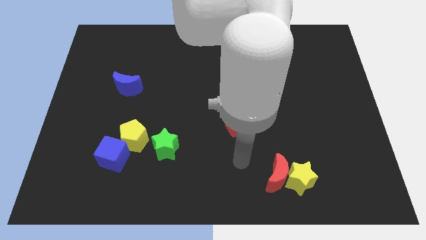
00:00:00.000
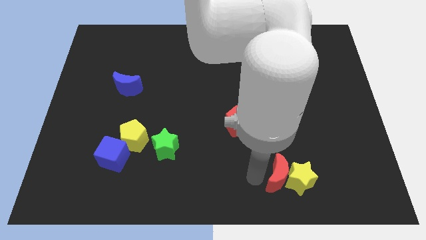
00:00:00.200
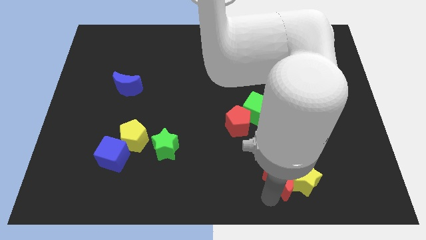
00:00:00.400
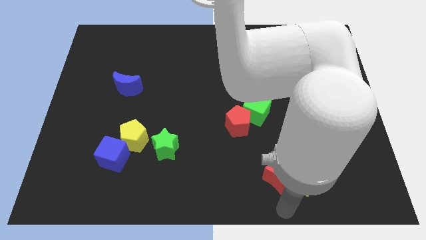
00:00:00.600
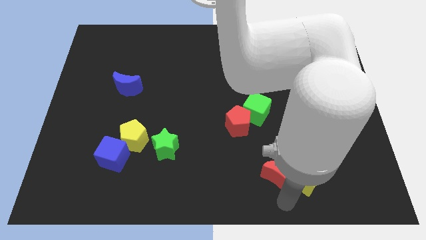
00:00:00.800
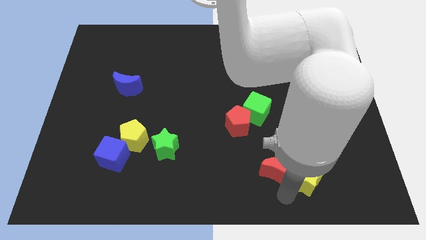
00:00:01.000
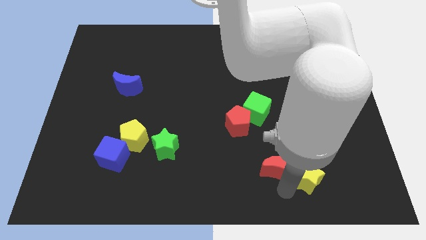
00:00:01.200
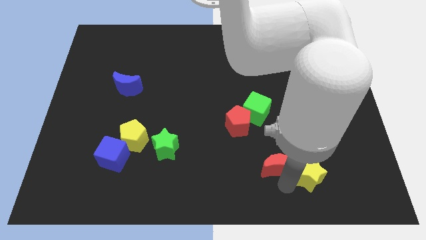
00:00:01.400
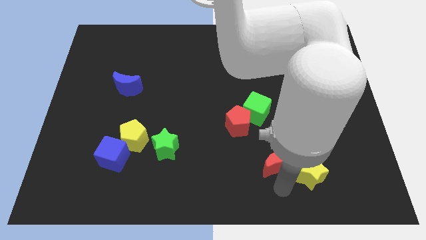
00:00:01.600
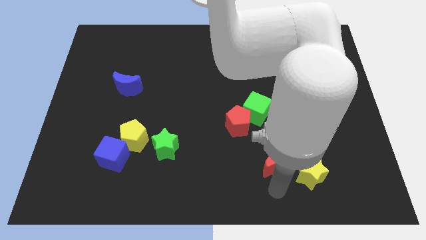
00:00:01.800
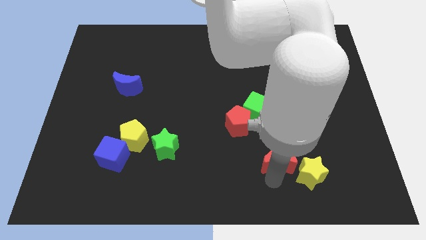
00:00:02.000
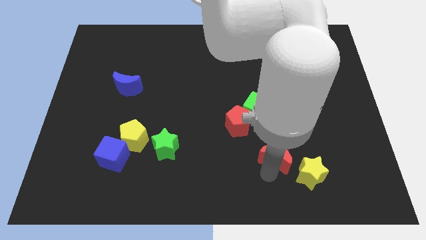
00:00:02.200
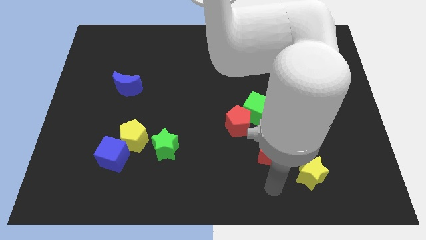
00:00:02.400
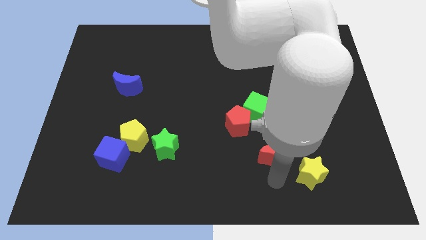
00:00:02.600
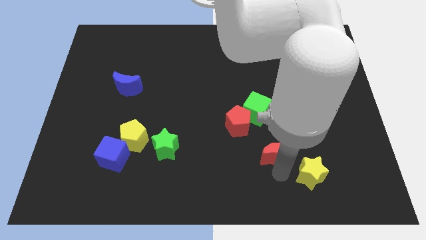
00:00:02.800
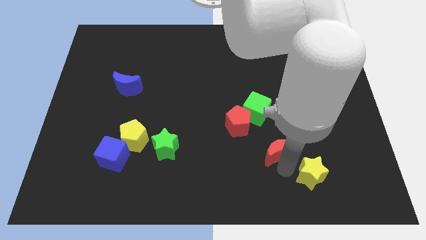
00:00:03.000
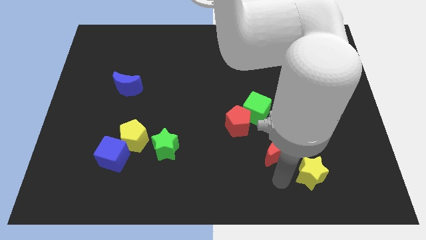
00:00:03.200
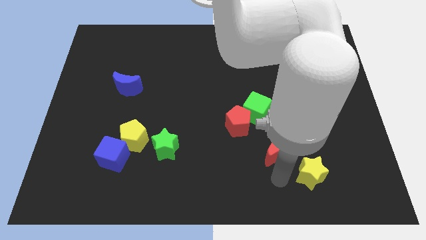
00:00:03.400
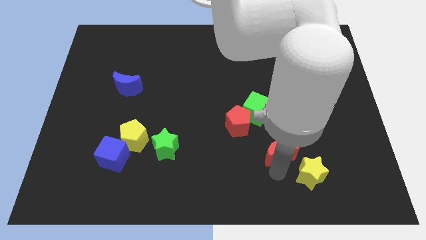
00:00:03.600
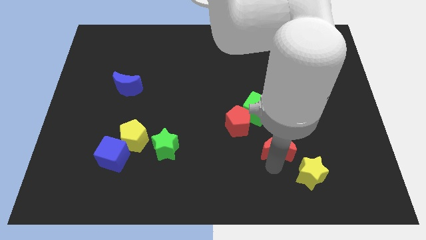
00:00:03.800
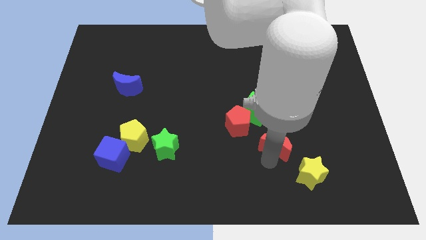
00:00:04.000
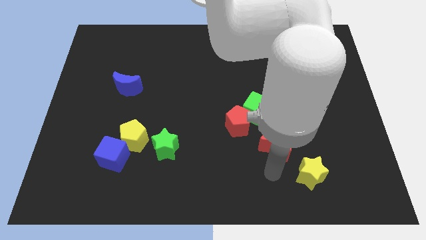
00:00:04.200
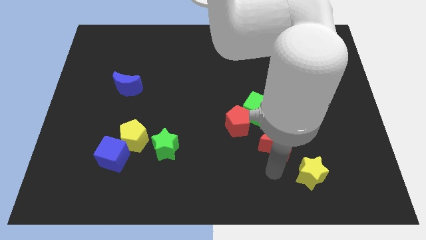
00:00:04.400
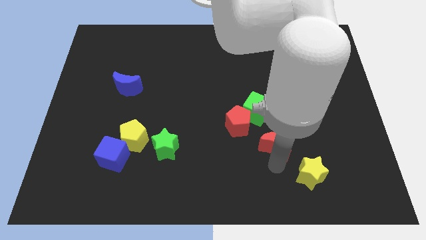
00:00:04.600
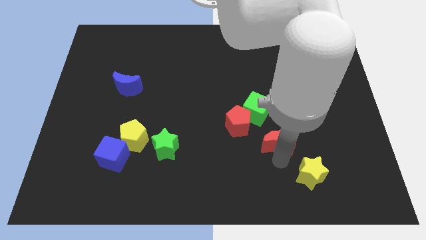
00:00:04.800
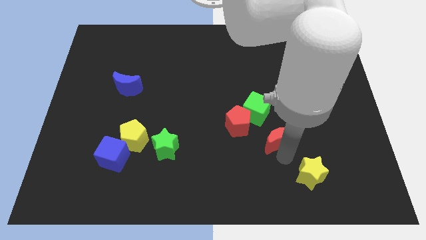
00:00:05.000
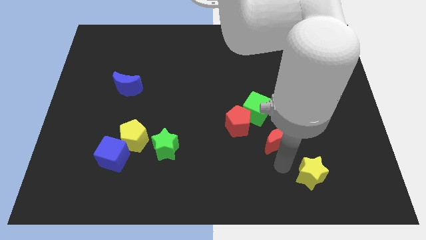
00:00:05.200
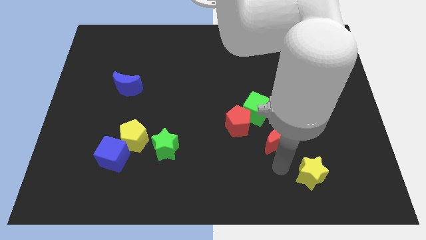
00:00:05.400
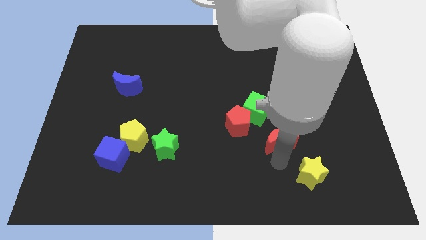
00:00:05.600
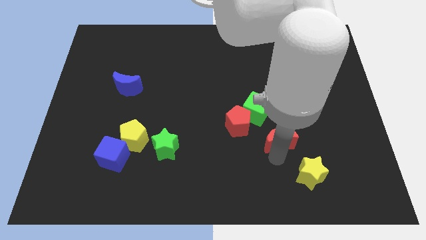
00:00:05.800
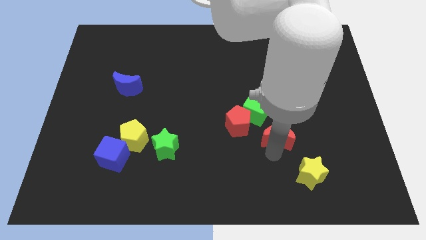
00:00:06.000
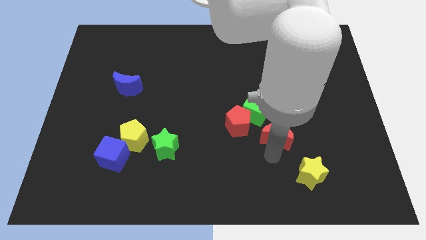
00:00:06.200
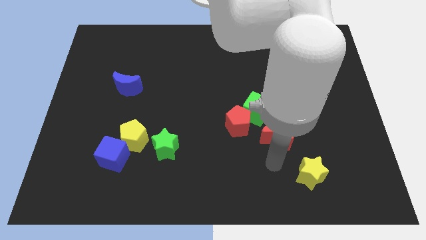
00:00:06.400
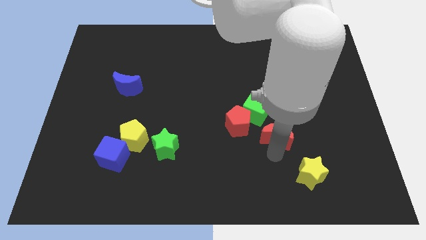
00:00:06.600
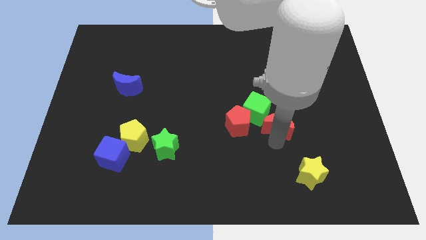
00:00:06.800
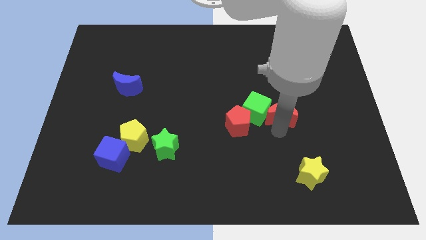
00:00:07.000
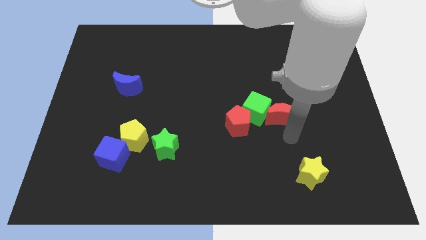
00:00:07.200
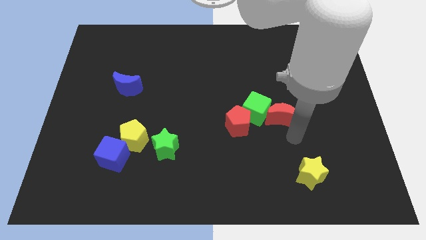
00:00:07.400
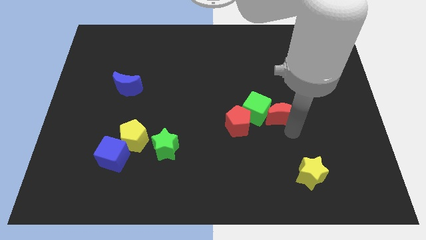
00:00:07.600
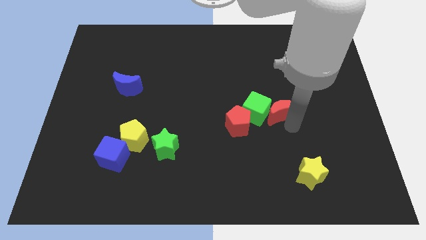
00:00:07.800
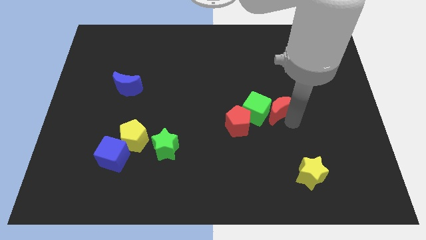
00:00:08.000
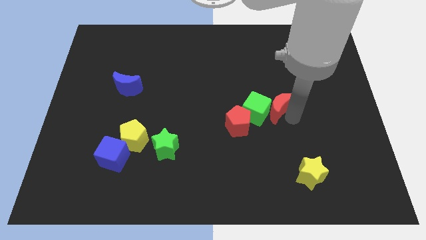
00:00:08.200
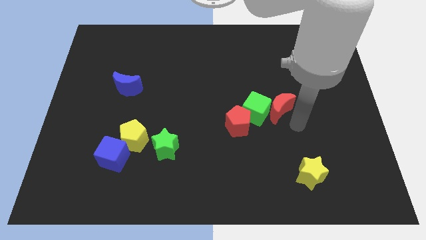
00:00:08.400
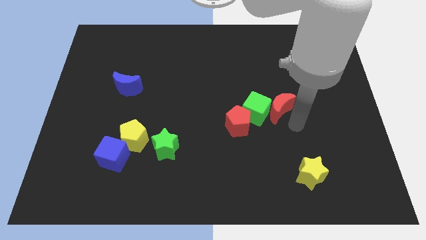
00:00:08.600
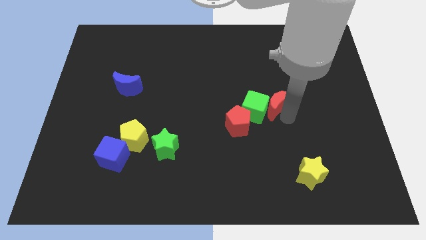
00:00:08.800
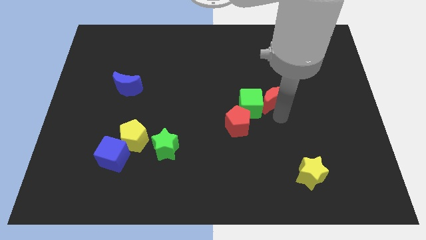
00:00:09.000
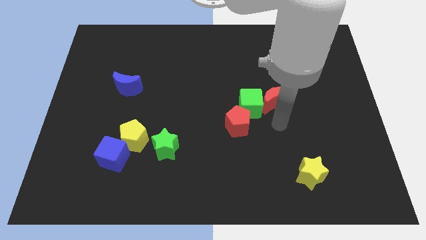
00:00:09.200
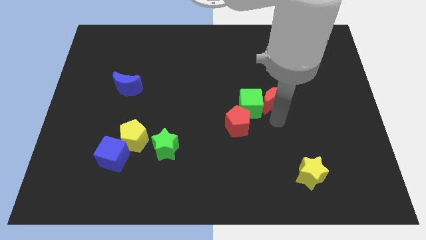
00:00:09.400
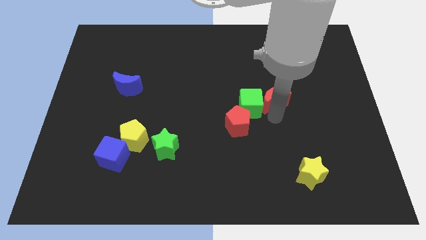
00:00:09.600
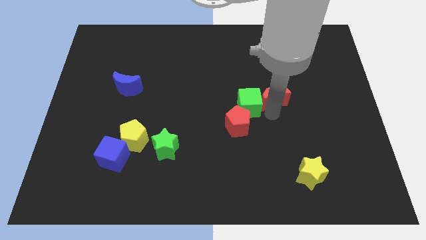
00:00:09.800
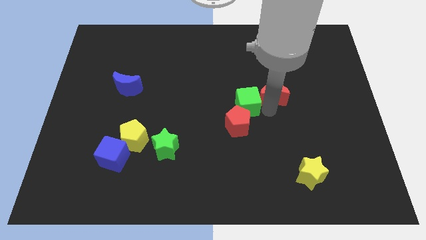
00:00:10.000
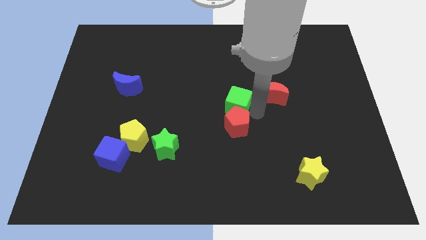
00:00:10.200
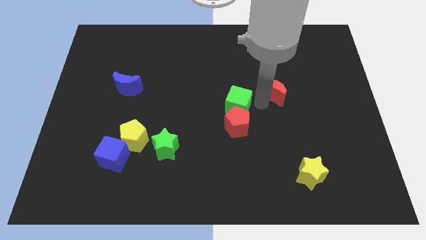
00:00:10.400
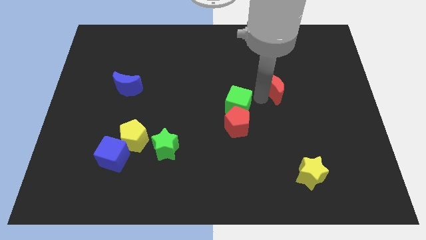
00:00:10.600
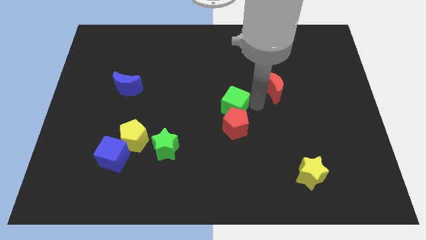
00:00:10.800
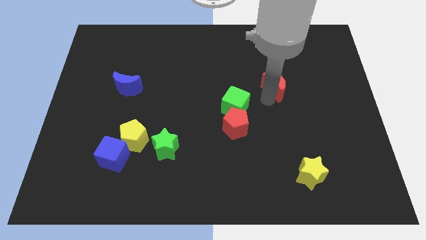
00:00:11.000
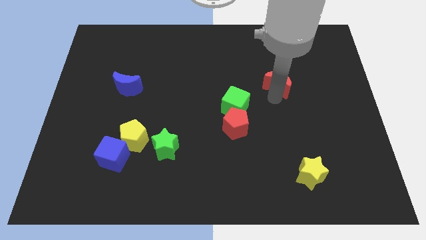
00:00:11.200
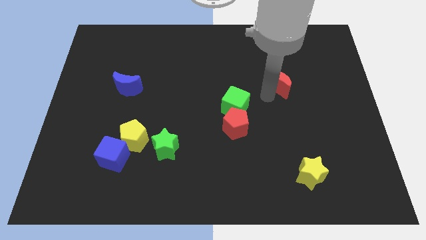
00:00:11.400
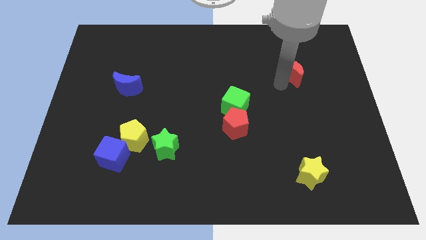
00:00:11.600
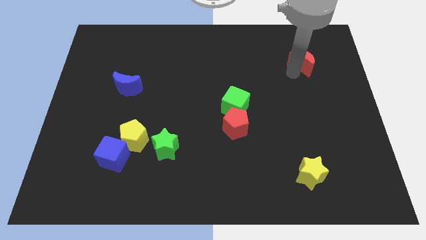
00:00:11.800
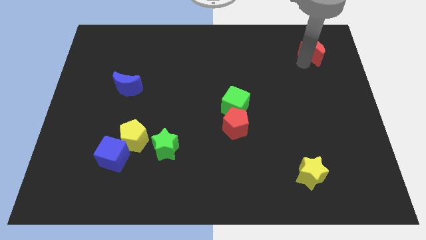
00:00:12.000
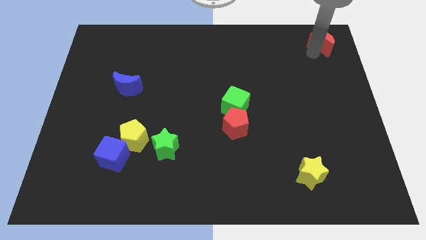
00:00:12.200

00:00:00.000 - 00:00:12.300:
push the red moon to the top right

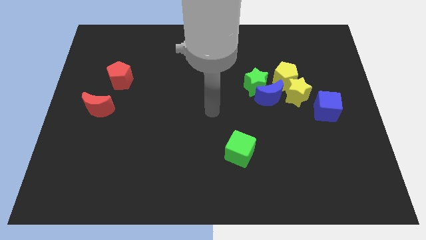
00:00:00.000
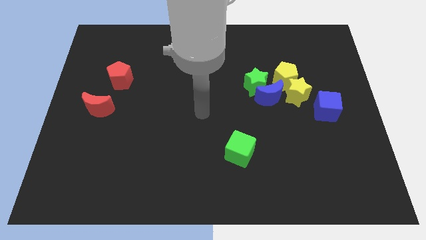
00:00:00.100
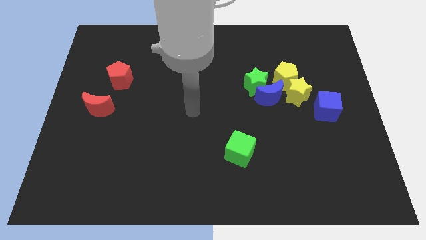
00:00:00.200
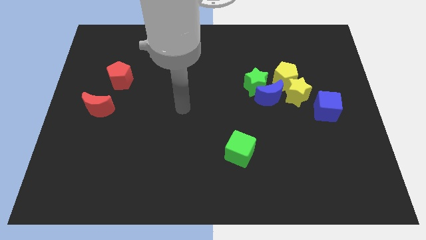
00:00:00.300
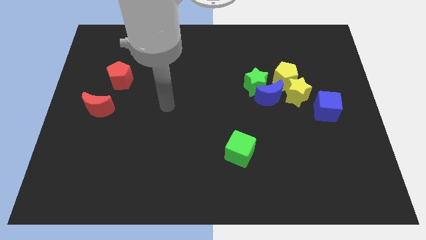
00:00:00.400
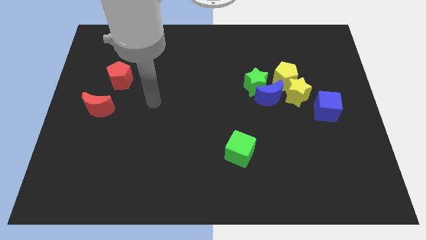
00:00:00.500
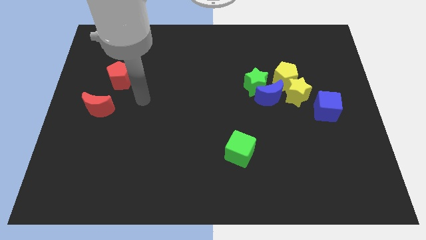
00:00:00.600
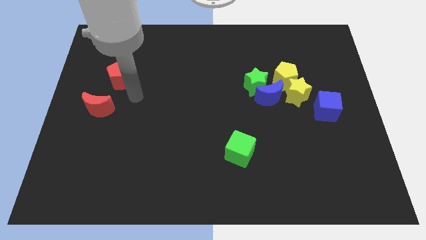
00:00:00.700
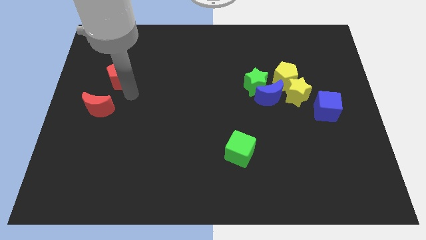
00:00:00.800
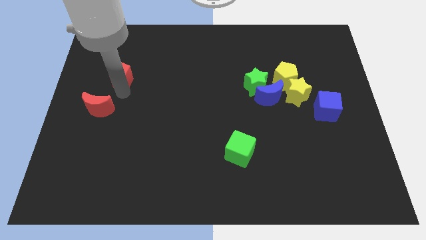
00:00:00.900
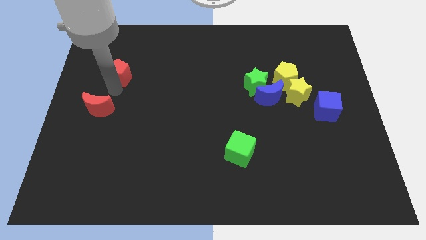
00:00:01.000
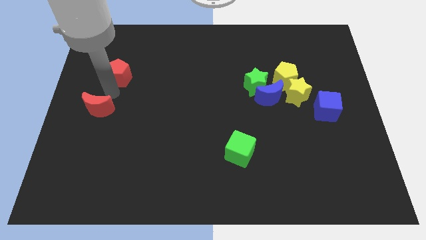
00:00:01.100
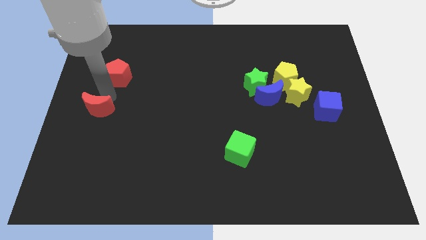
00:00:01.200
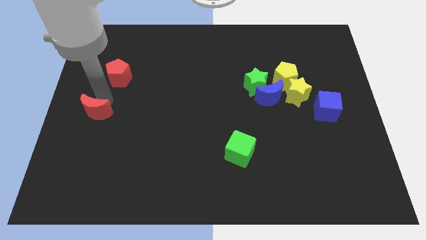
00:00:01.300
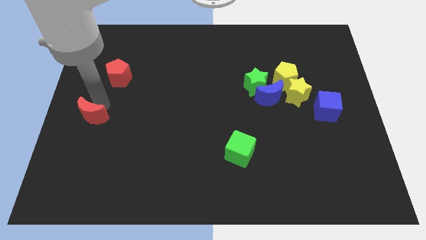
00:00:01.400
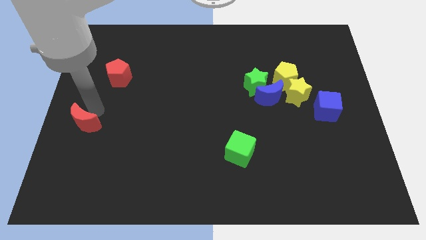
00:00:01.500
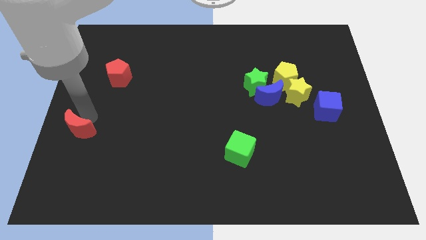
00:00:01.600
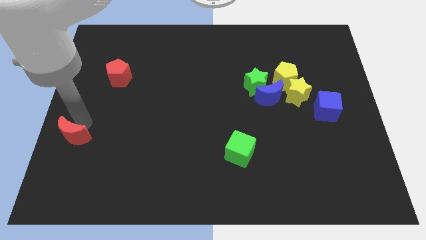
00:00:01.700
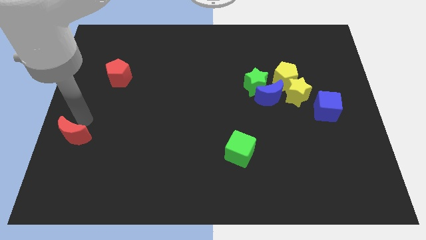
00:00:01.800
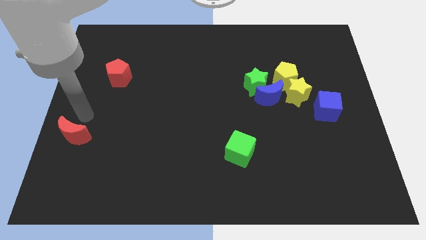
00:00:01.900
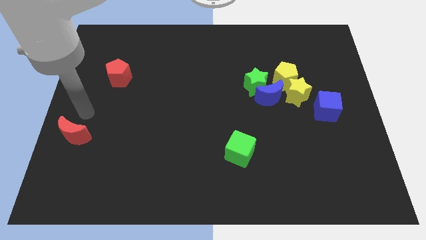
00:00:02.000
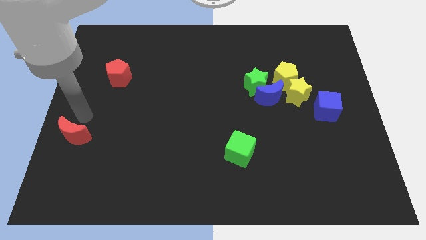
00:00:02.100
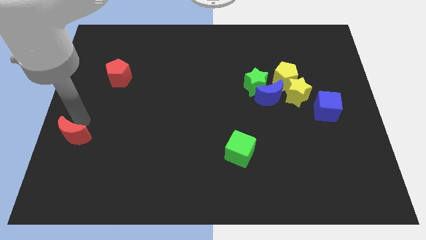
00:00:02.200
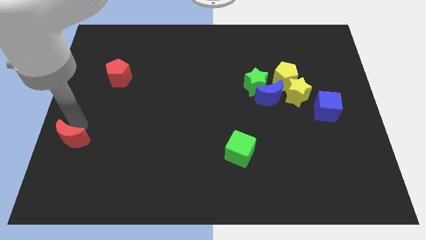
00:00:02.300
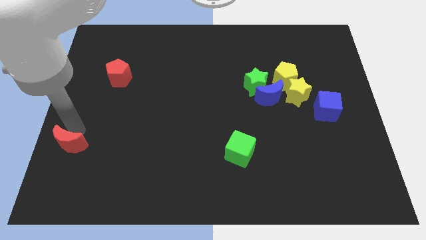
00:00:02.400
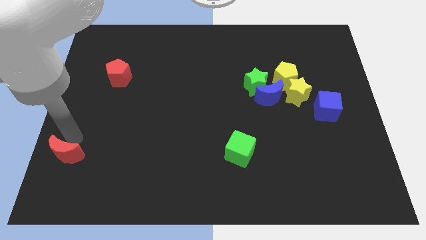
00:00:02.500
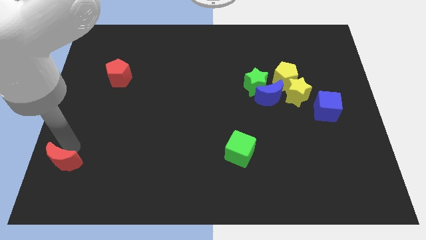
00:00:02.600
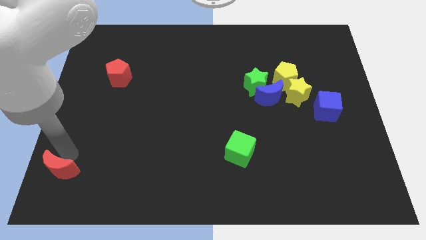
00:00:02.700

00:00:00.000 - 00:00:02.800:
push the red moon to the lower left corner
